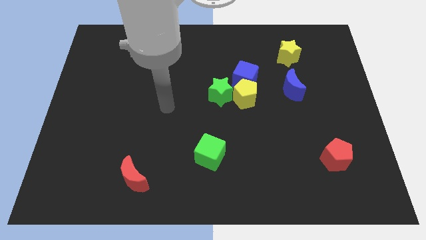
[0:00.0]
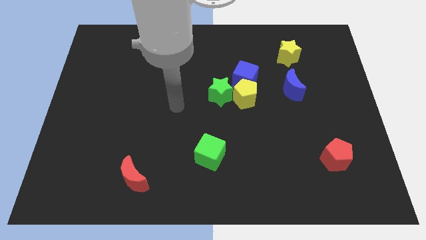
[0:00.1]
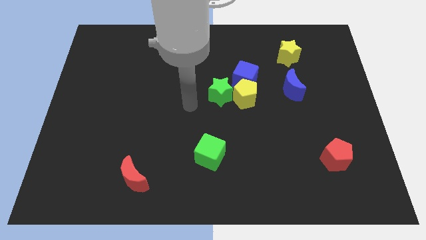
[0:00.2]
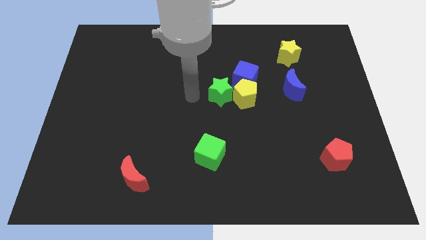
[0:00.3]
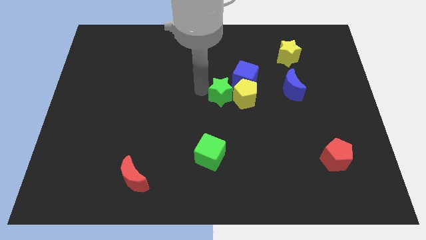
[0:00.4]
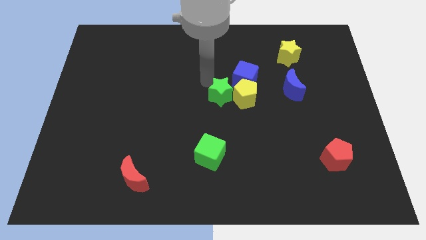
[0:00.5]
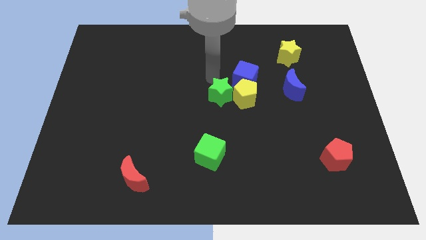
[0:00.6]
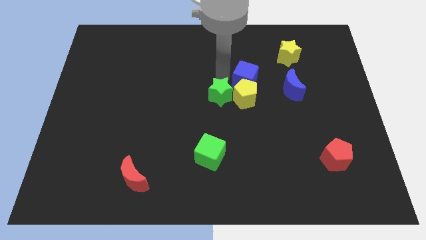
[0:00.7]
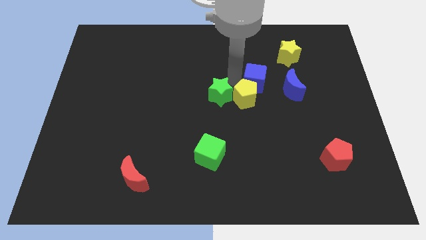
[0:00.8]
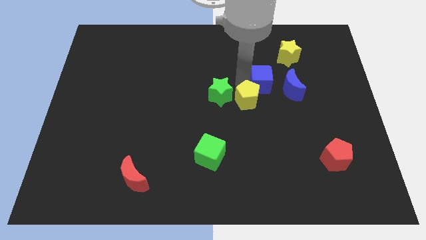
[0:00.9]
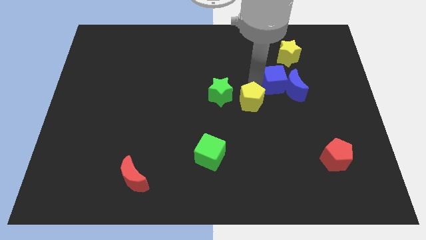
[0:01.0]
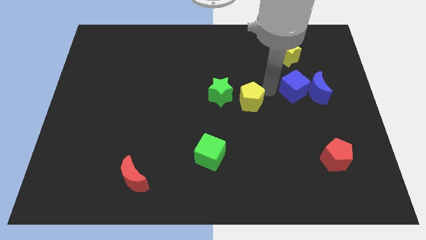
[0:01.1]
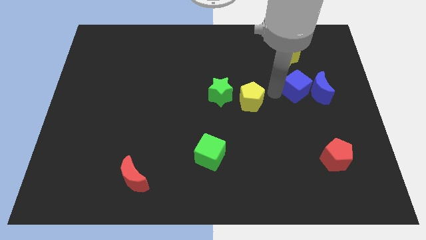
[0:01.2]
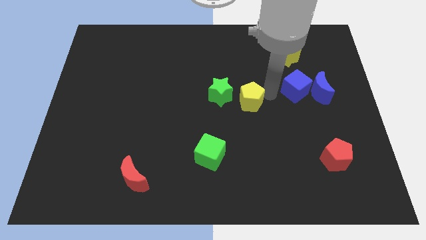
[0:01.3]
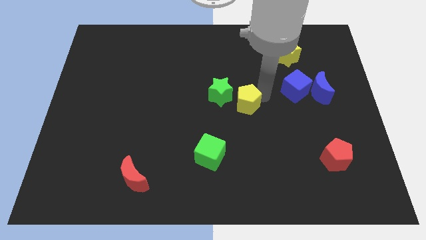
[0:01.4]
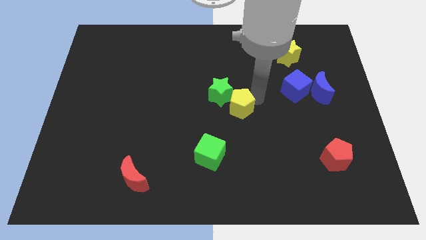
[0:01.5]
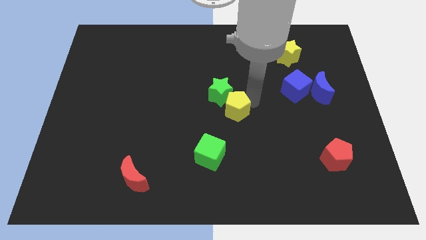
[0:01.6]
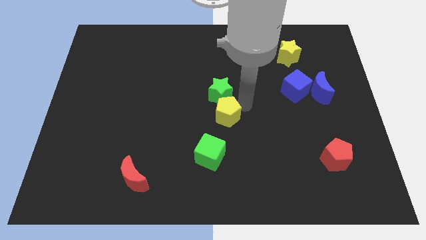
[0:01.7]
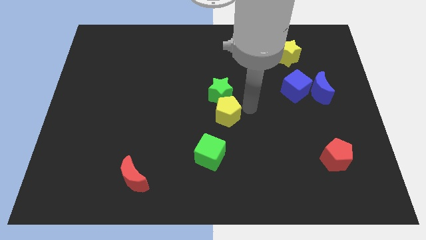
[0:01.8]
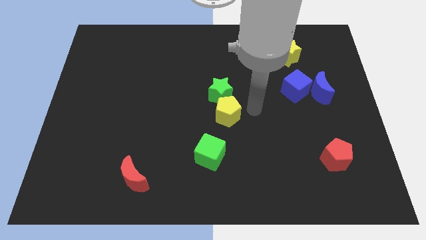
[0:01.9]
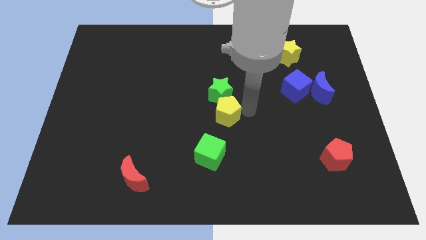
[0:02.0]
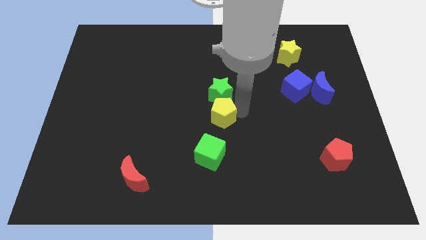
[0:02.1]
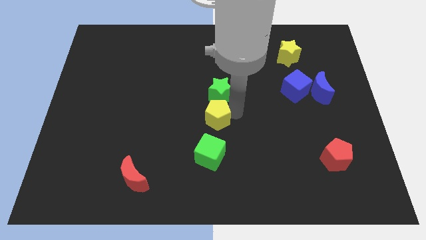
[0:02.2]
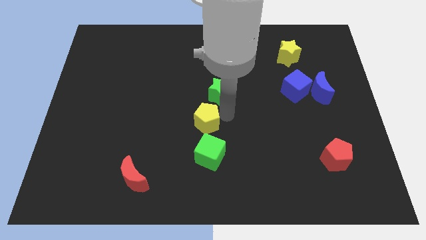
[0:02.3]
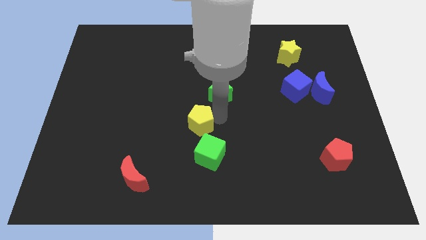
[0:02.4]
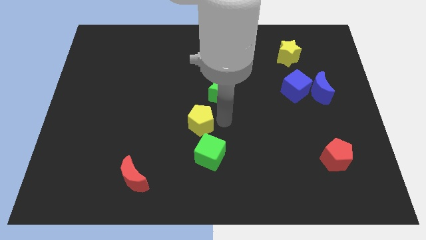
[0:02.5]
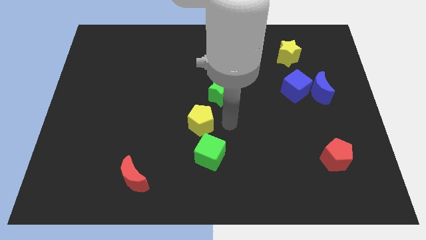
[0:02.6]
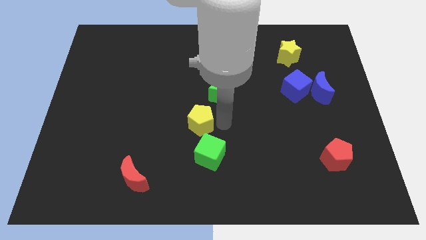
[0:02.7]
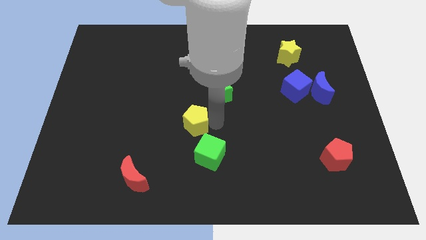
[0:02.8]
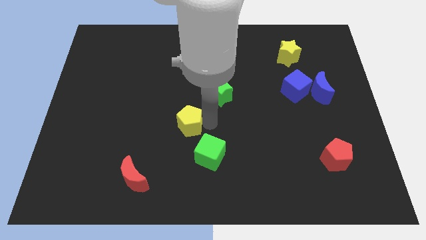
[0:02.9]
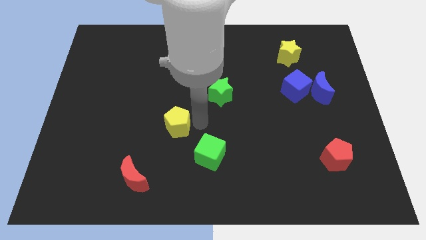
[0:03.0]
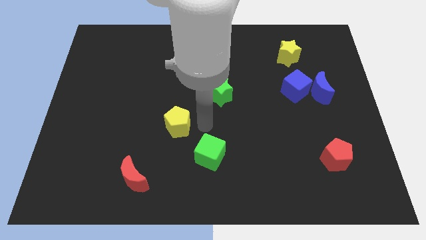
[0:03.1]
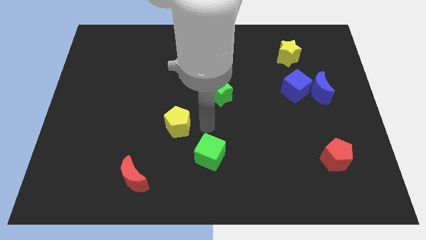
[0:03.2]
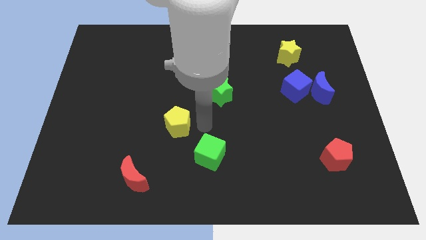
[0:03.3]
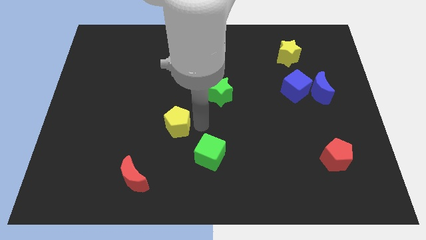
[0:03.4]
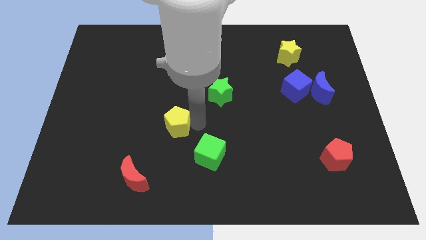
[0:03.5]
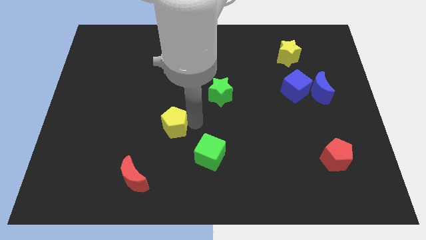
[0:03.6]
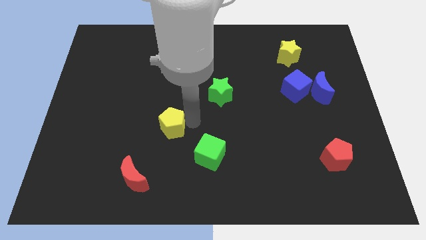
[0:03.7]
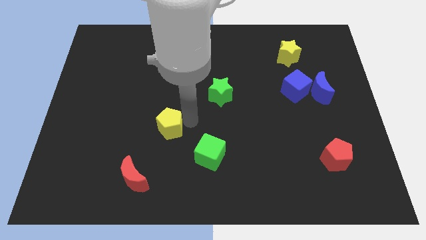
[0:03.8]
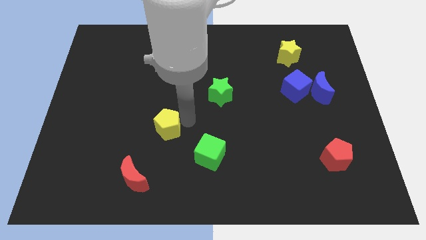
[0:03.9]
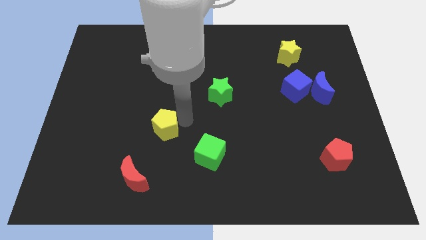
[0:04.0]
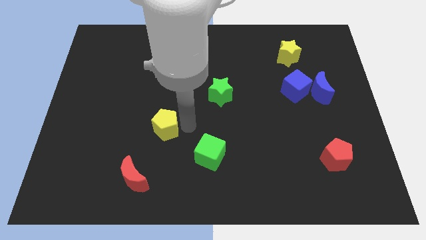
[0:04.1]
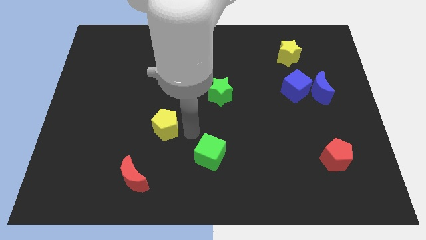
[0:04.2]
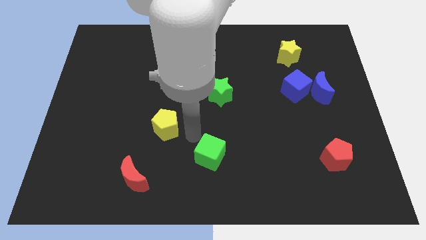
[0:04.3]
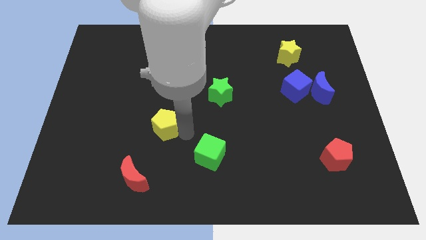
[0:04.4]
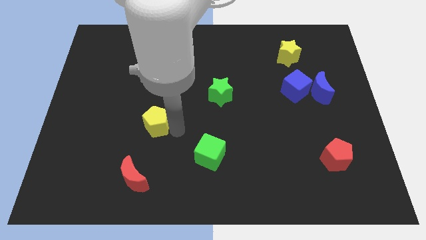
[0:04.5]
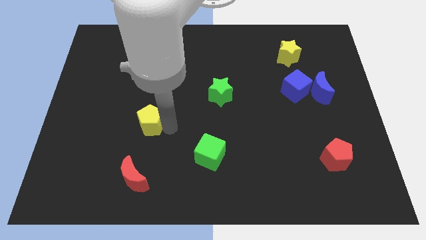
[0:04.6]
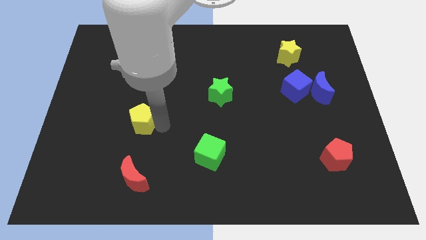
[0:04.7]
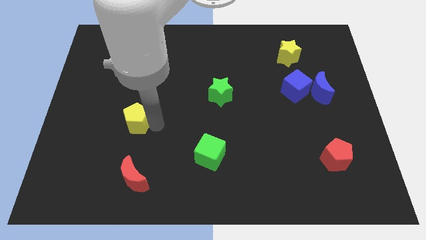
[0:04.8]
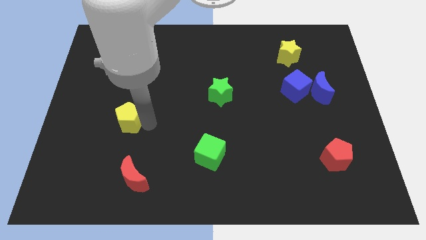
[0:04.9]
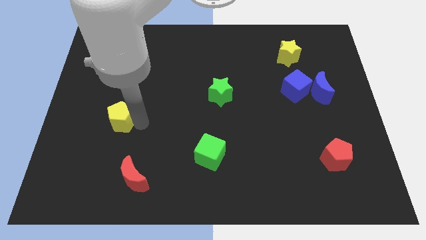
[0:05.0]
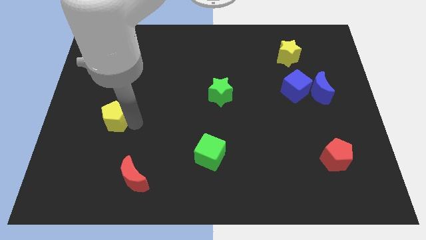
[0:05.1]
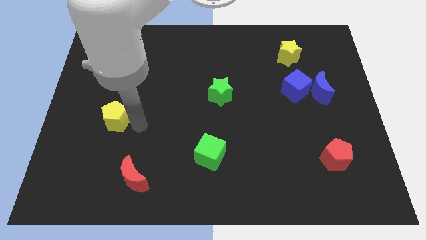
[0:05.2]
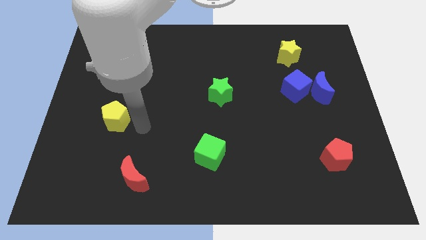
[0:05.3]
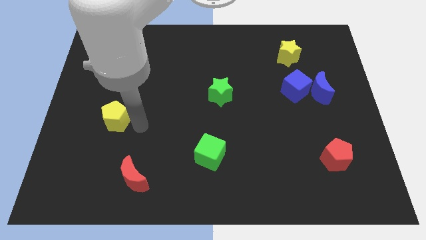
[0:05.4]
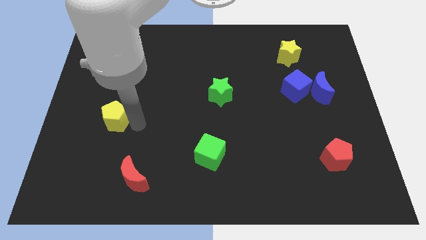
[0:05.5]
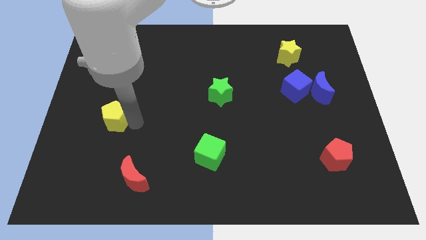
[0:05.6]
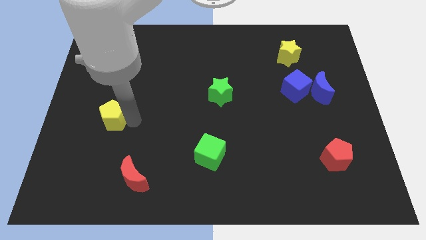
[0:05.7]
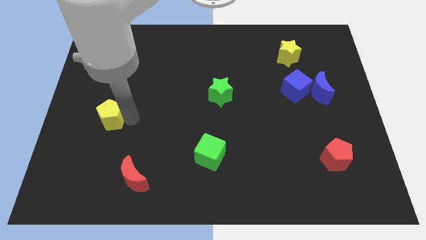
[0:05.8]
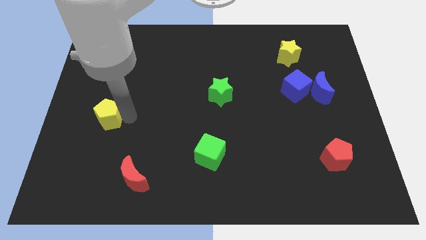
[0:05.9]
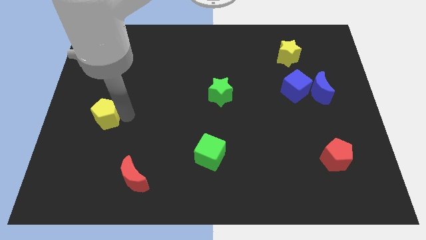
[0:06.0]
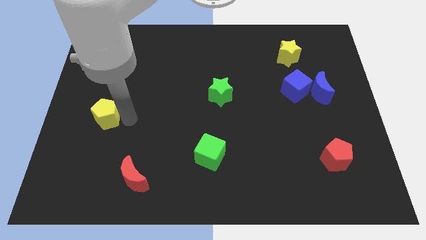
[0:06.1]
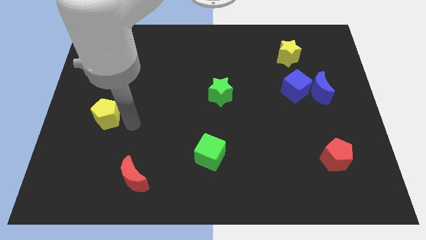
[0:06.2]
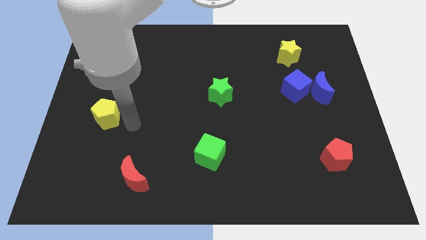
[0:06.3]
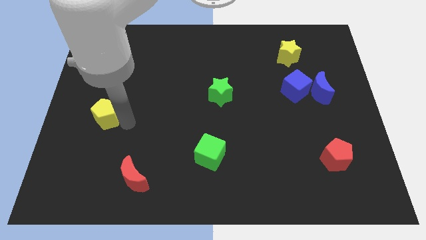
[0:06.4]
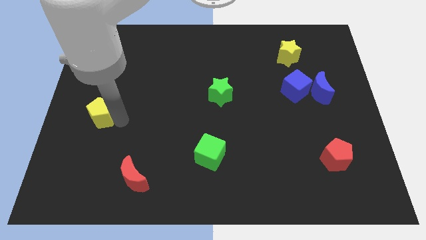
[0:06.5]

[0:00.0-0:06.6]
push the yellow pentagon to the left side
